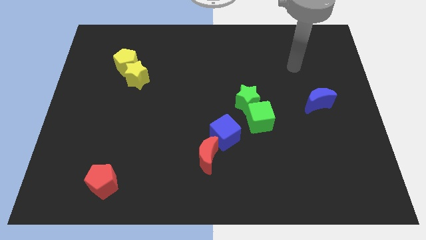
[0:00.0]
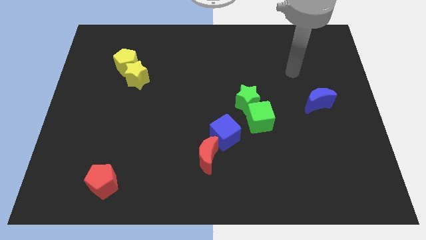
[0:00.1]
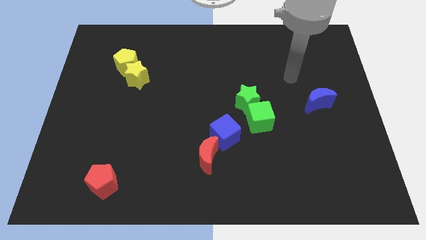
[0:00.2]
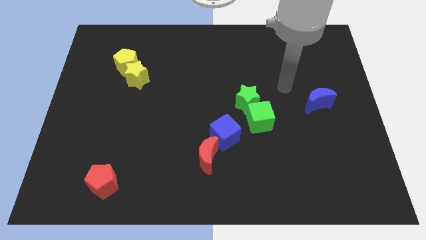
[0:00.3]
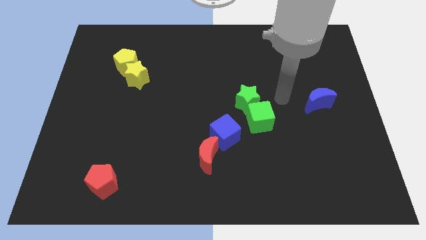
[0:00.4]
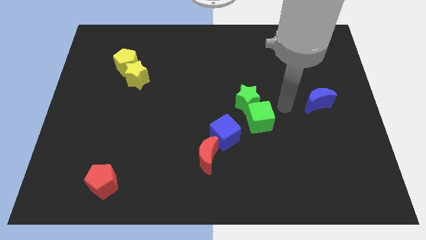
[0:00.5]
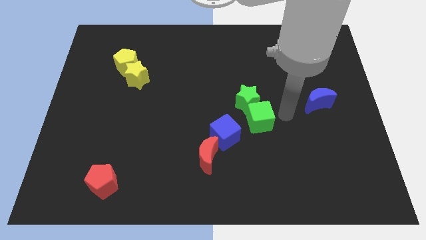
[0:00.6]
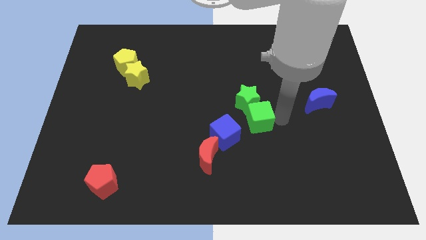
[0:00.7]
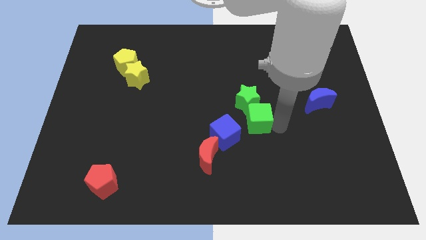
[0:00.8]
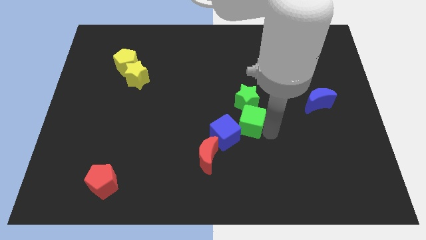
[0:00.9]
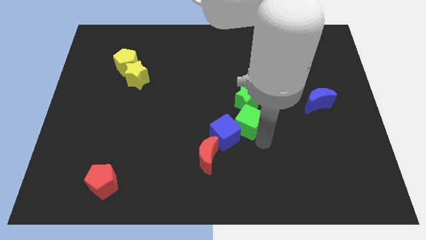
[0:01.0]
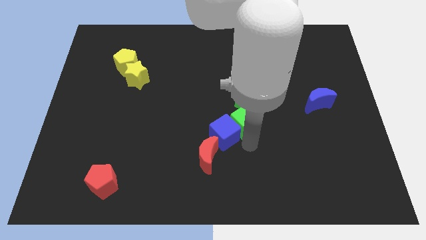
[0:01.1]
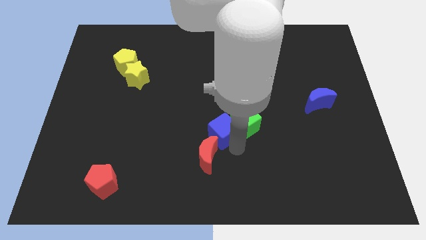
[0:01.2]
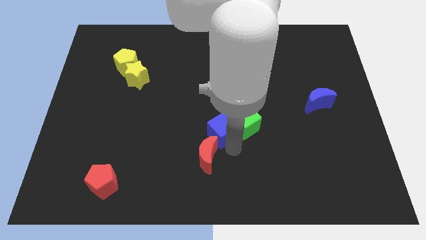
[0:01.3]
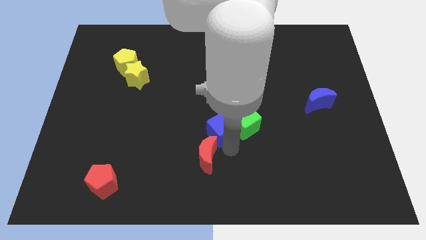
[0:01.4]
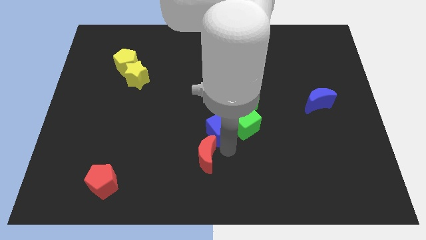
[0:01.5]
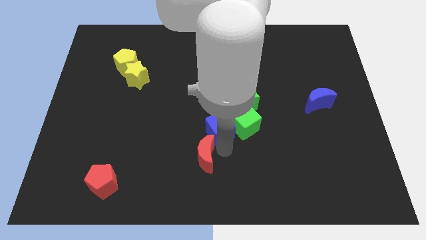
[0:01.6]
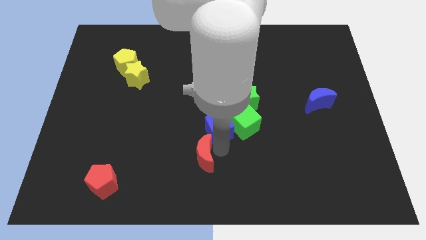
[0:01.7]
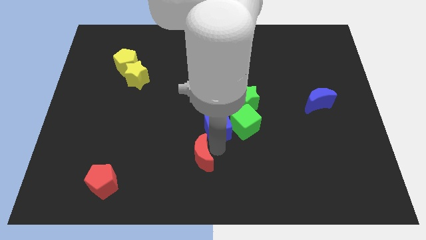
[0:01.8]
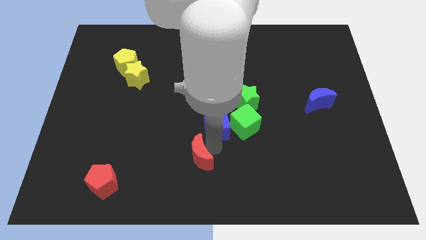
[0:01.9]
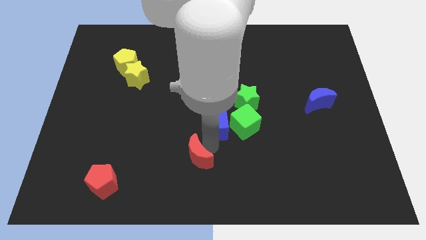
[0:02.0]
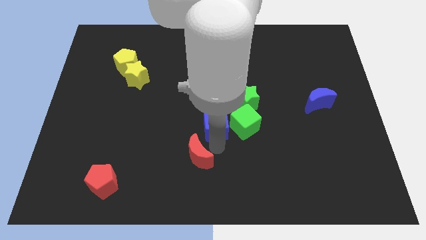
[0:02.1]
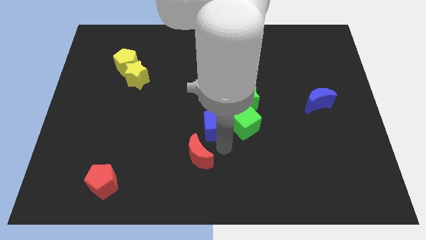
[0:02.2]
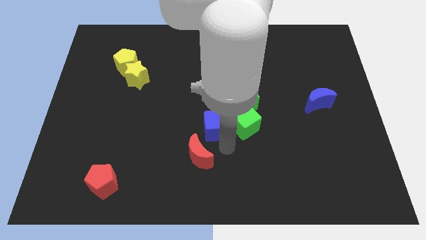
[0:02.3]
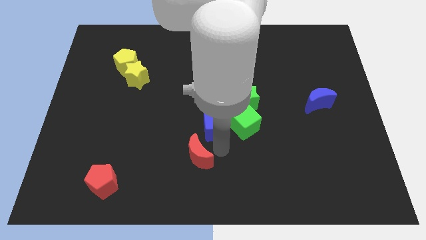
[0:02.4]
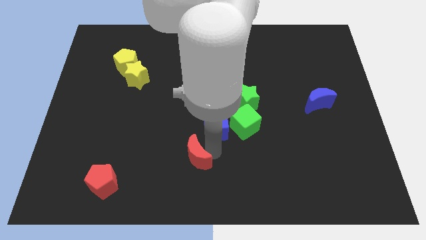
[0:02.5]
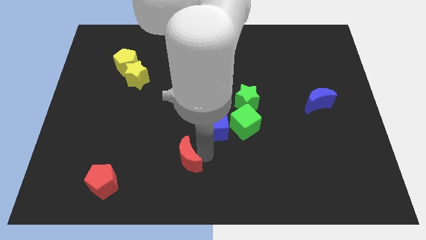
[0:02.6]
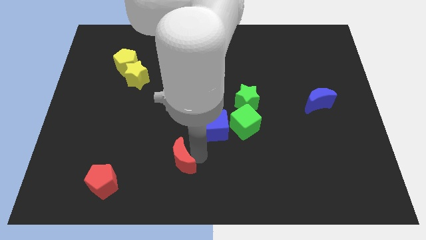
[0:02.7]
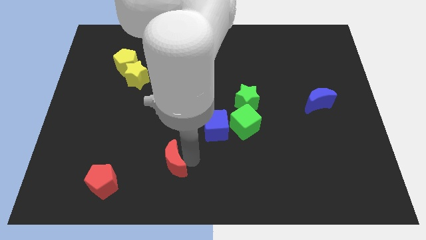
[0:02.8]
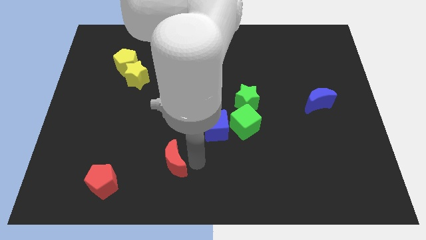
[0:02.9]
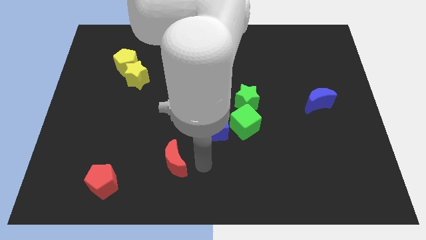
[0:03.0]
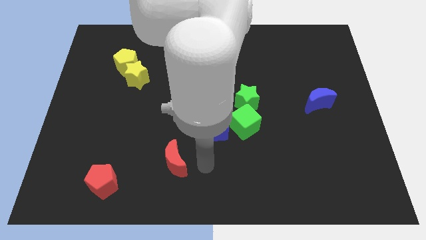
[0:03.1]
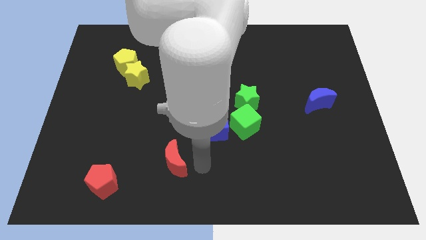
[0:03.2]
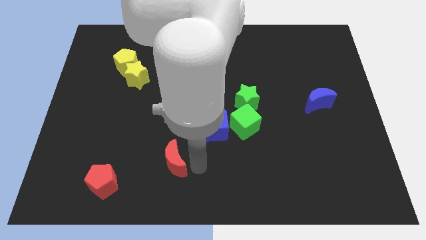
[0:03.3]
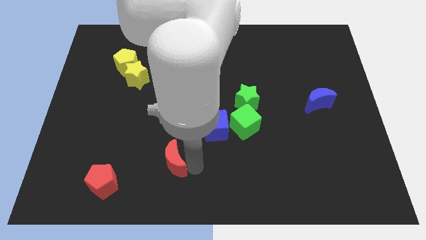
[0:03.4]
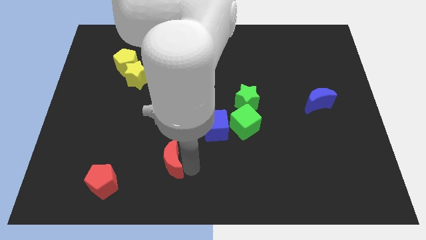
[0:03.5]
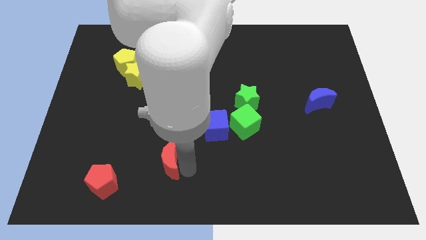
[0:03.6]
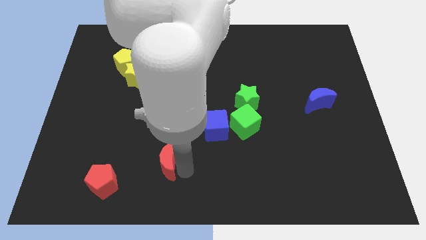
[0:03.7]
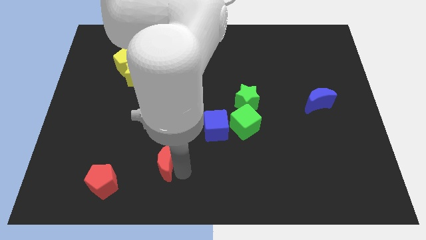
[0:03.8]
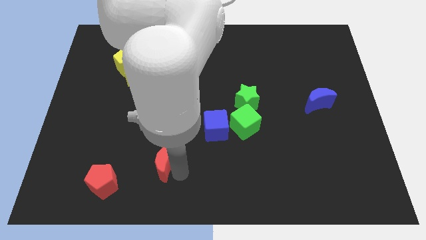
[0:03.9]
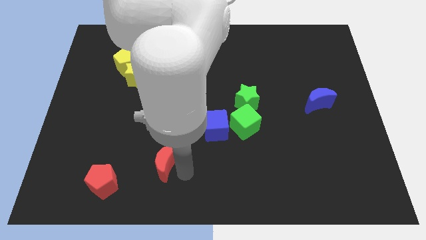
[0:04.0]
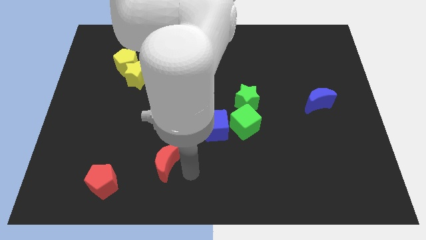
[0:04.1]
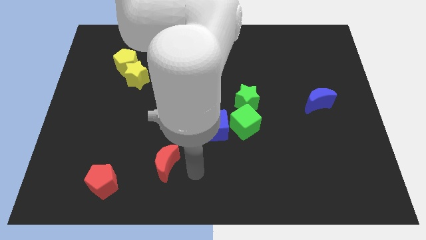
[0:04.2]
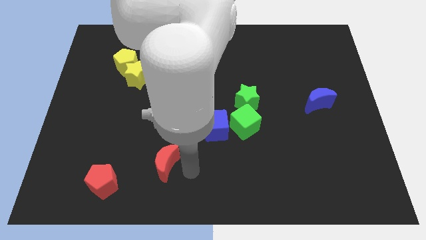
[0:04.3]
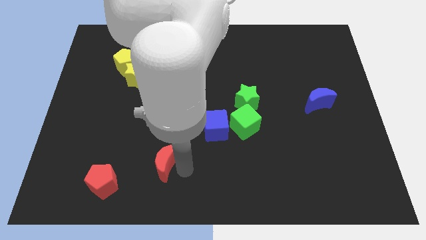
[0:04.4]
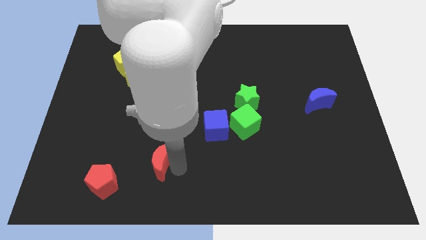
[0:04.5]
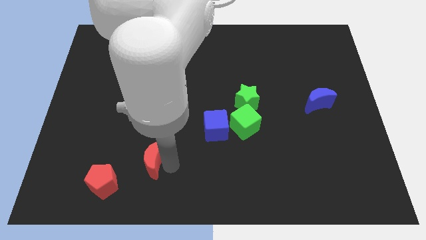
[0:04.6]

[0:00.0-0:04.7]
slide the red moon to the top right side of the red pentagon

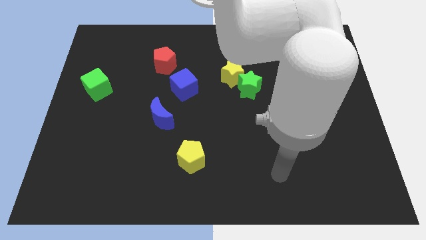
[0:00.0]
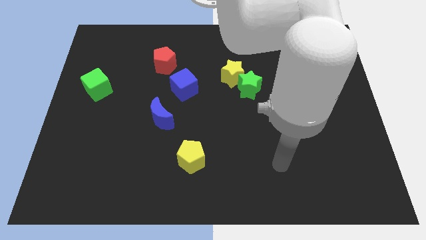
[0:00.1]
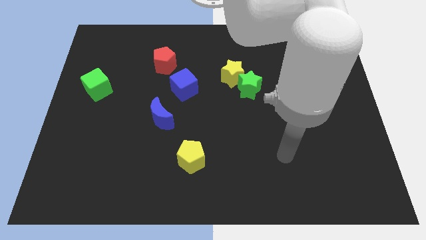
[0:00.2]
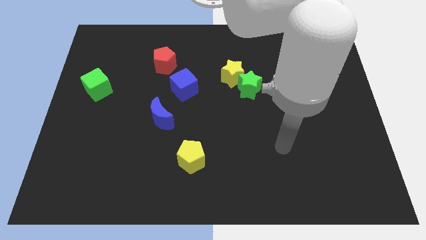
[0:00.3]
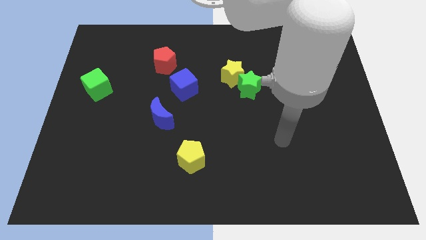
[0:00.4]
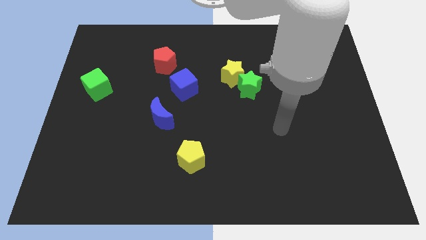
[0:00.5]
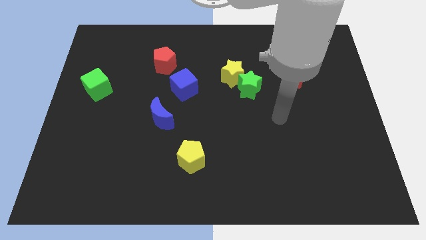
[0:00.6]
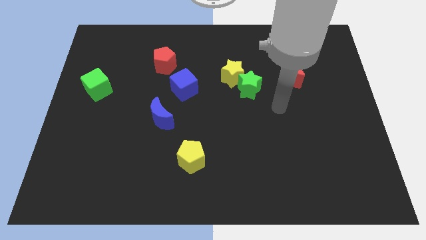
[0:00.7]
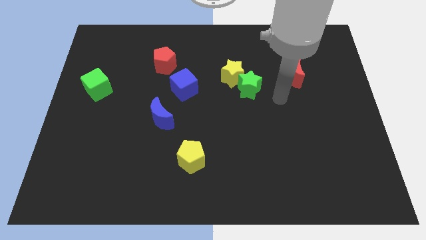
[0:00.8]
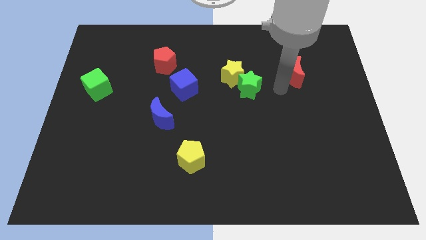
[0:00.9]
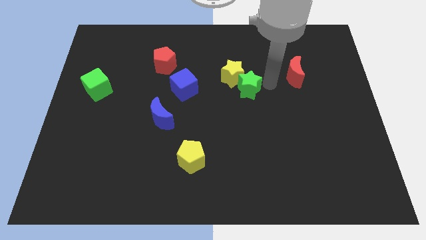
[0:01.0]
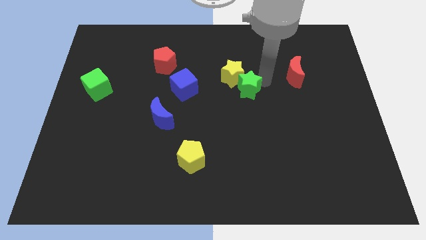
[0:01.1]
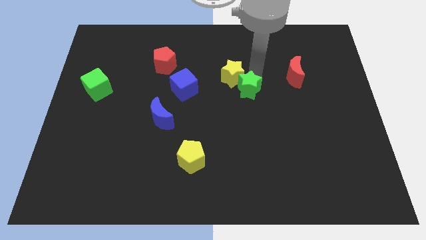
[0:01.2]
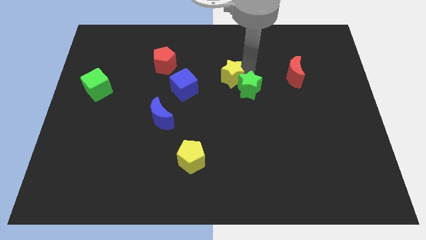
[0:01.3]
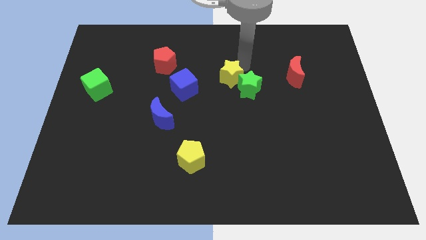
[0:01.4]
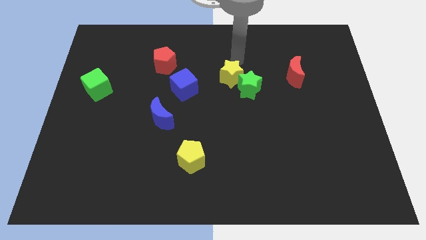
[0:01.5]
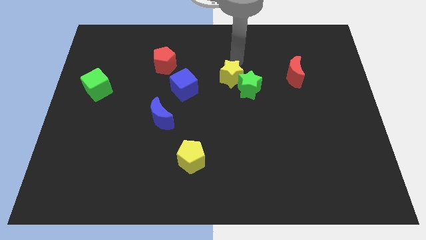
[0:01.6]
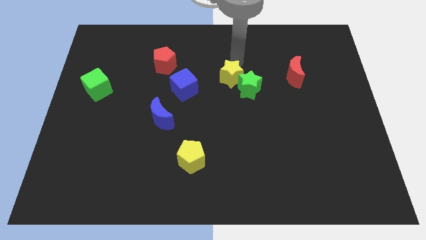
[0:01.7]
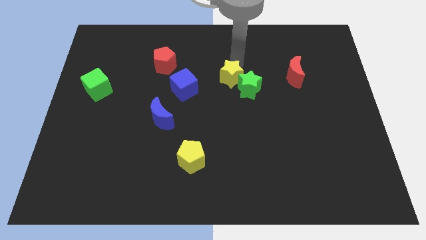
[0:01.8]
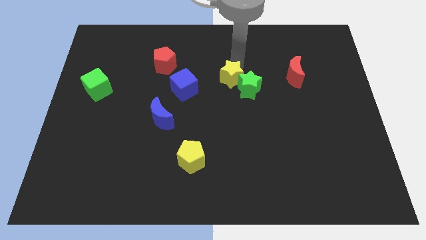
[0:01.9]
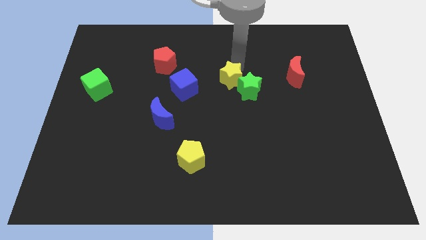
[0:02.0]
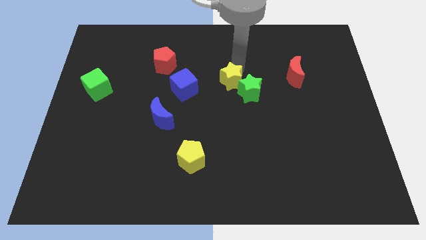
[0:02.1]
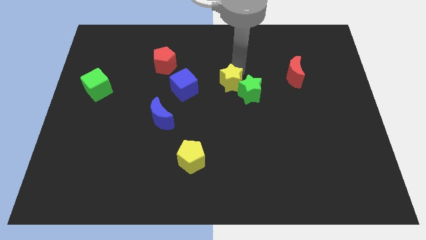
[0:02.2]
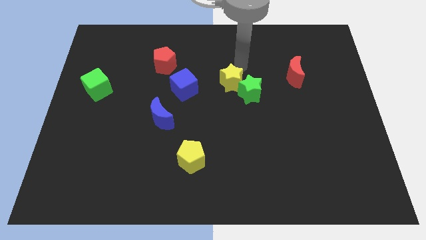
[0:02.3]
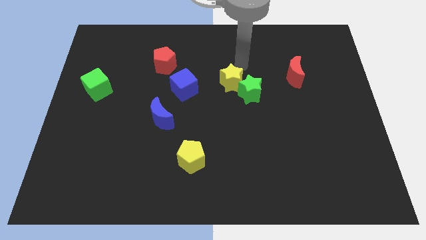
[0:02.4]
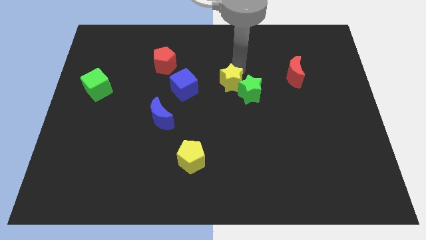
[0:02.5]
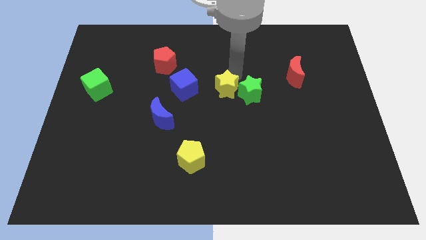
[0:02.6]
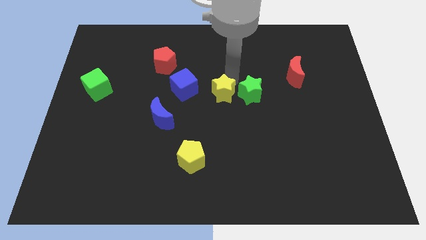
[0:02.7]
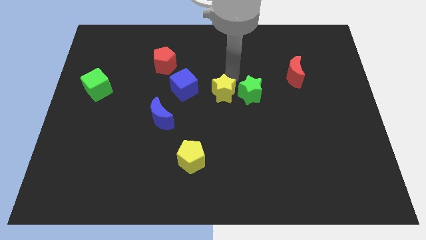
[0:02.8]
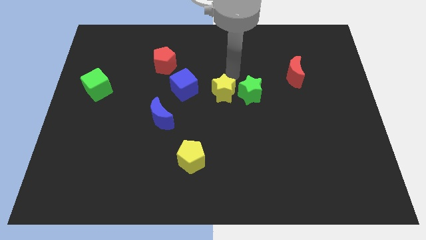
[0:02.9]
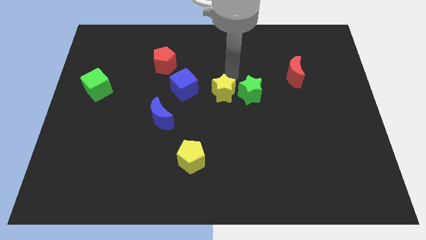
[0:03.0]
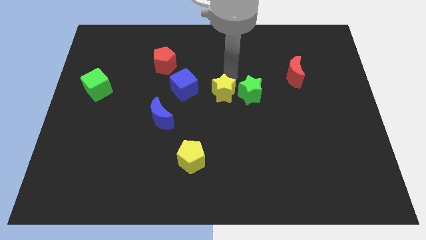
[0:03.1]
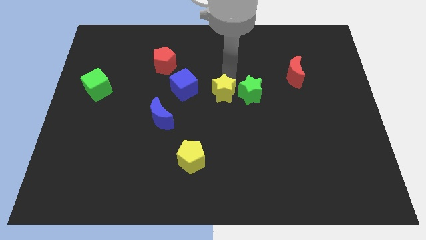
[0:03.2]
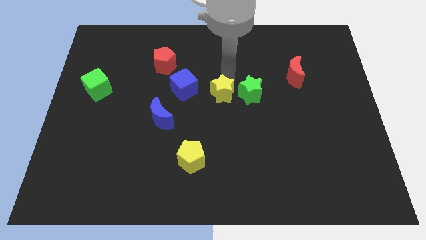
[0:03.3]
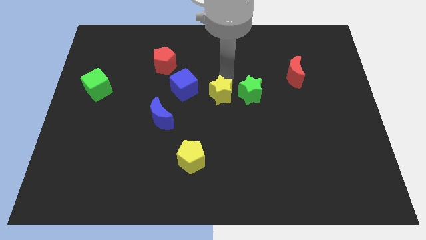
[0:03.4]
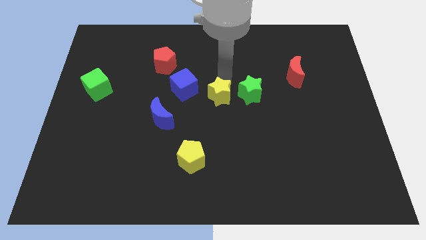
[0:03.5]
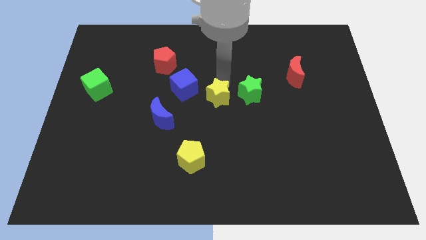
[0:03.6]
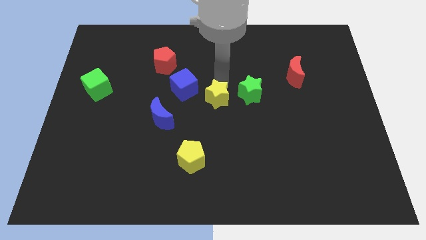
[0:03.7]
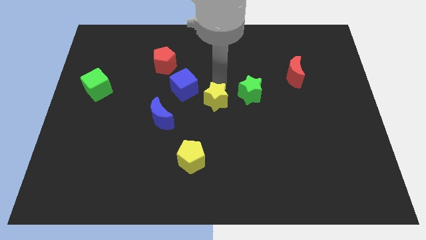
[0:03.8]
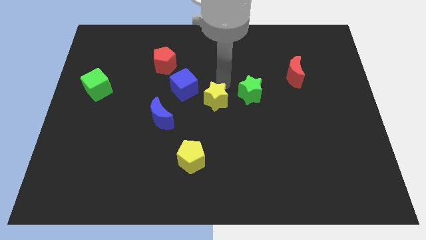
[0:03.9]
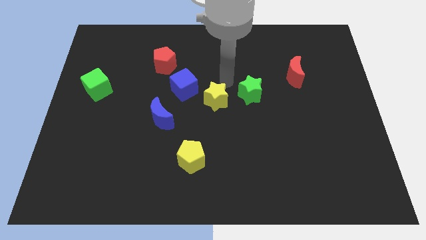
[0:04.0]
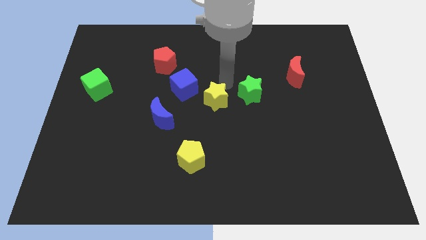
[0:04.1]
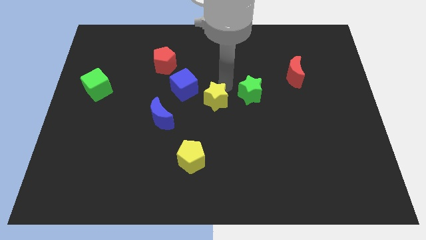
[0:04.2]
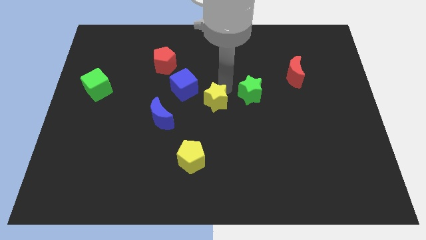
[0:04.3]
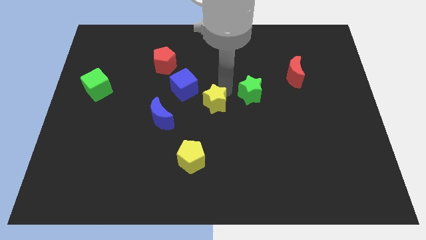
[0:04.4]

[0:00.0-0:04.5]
put the yellow star to the right of the blue moon
